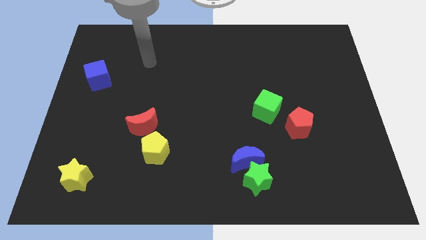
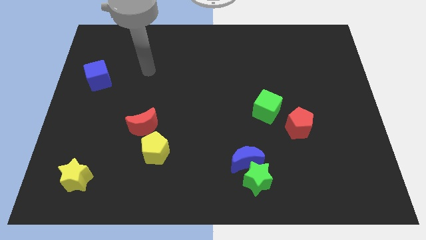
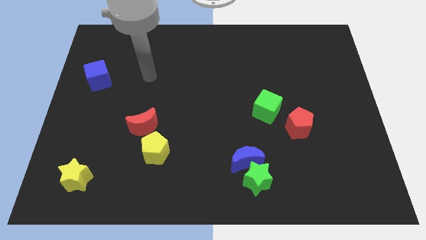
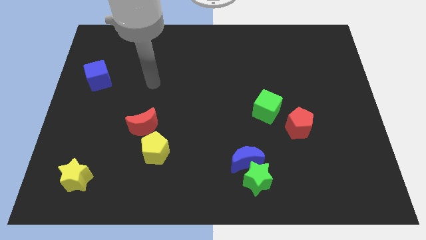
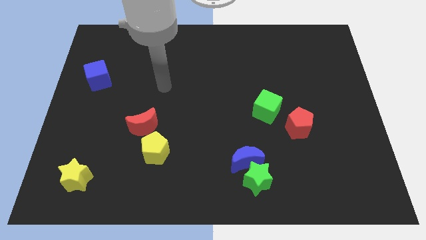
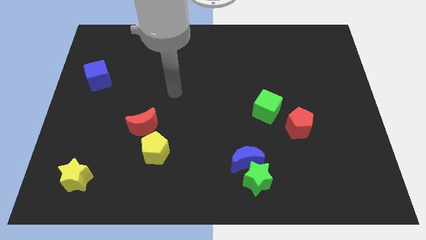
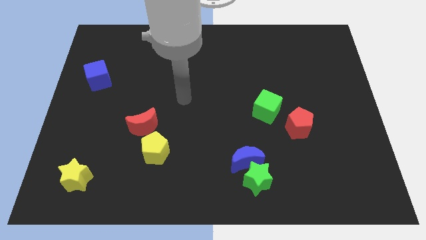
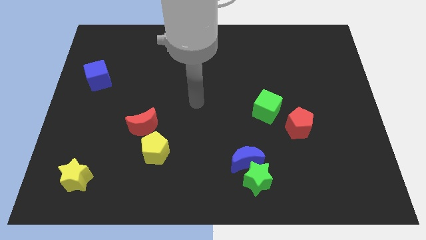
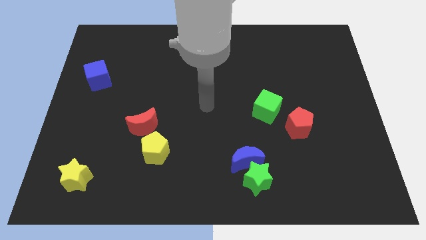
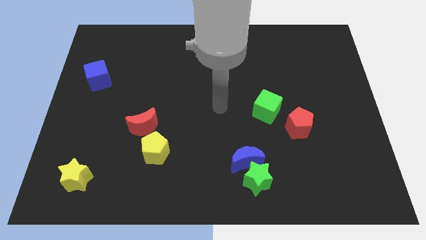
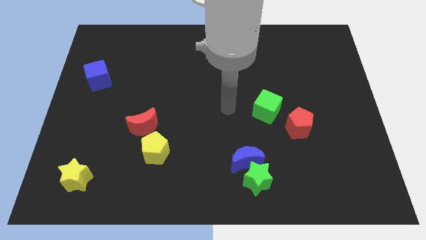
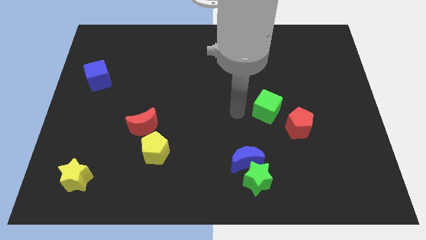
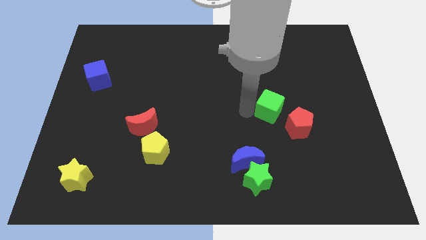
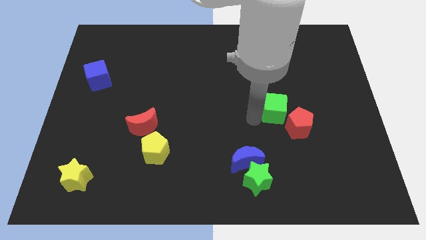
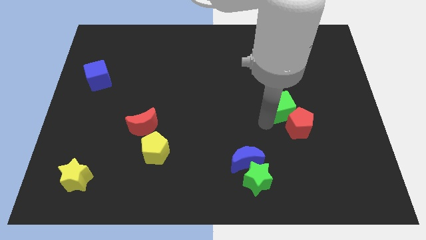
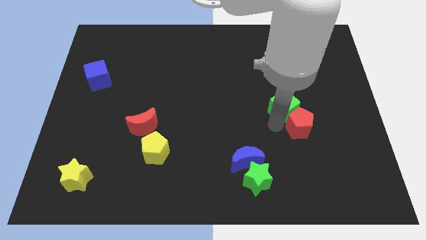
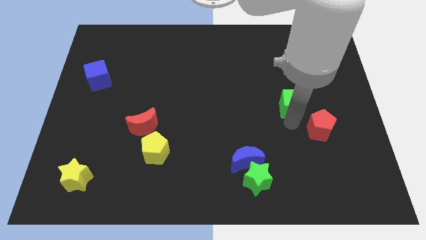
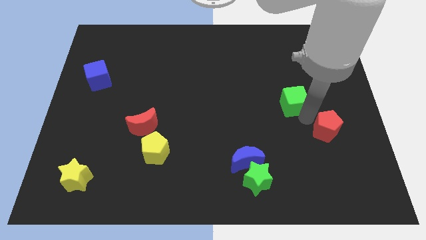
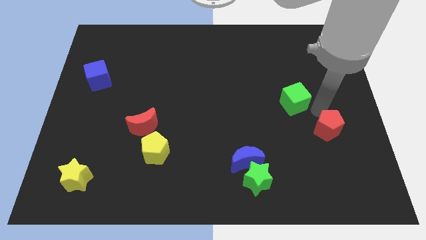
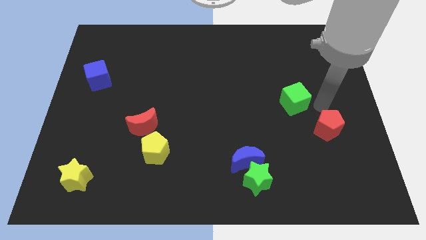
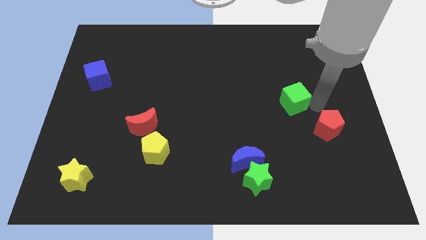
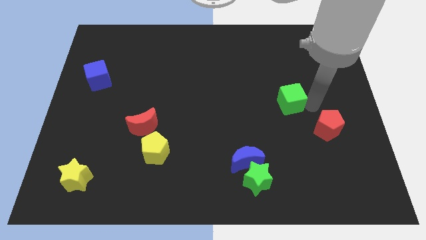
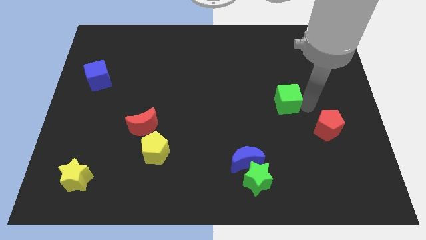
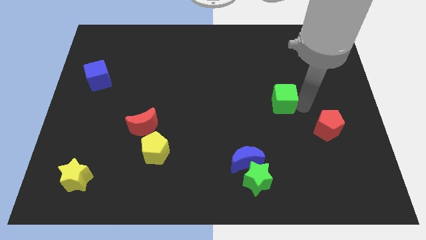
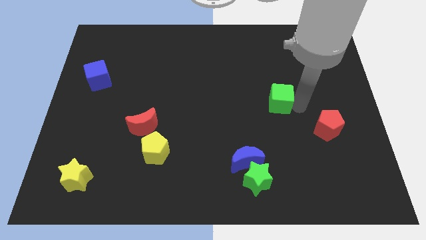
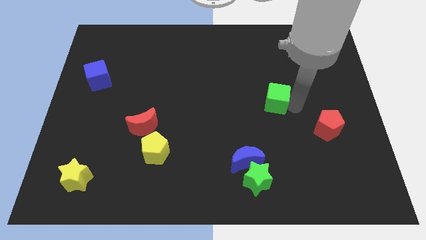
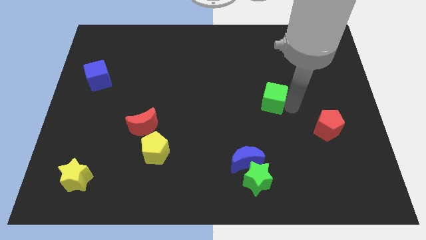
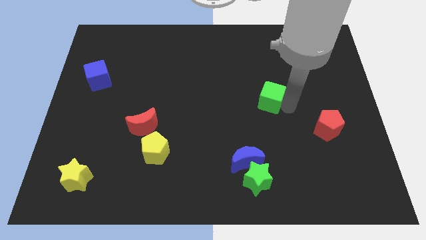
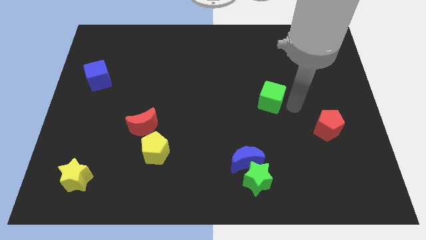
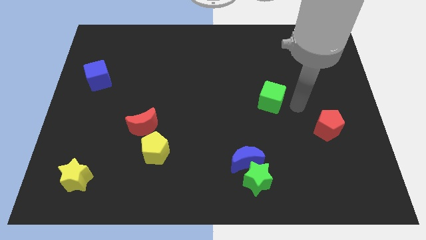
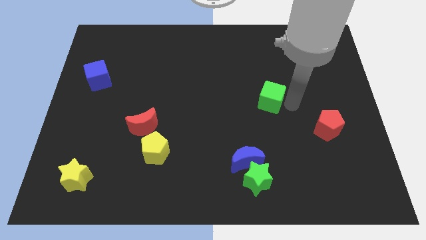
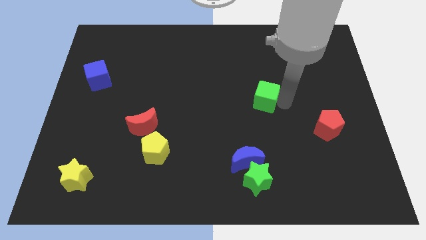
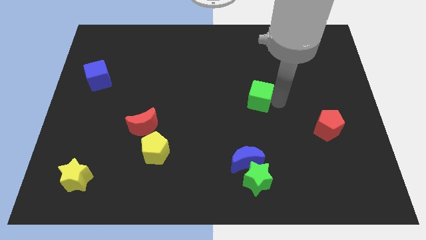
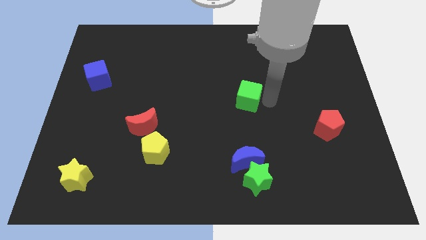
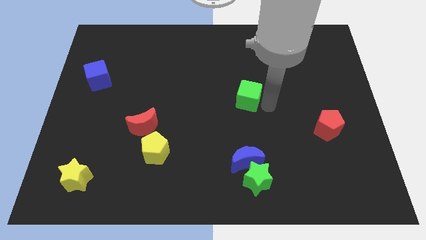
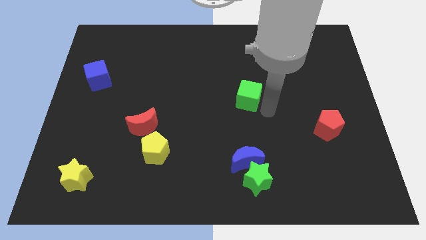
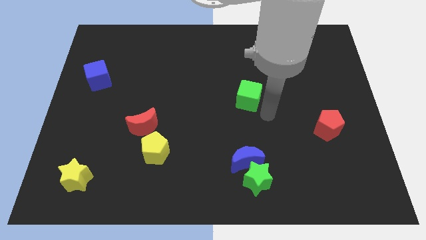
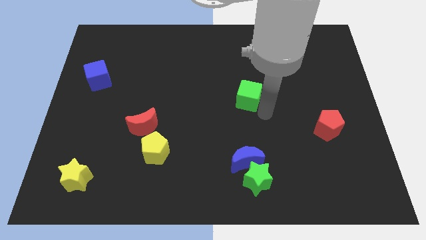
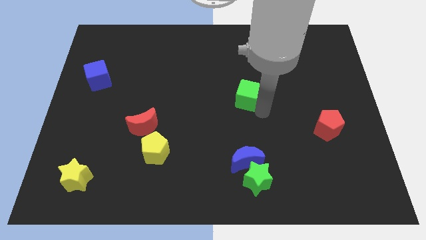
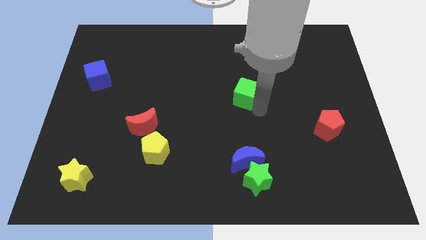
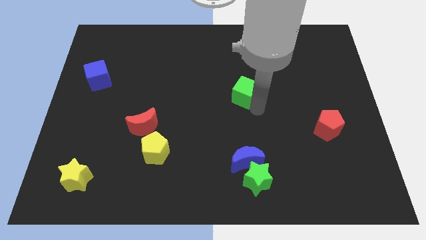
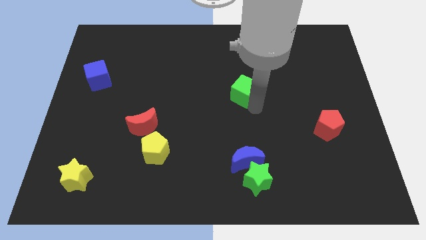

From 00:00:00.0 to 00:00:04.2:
slightly move the green cube upwards and to the left diagonally

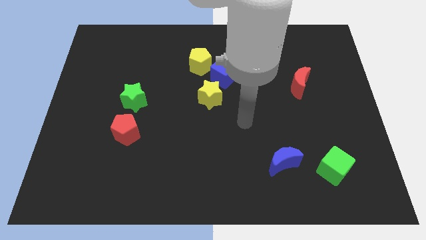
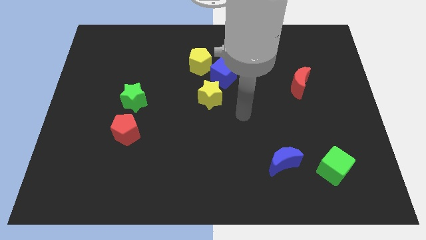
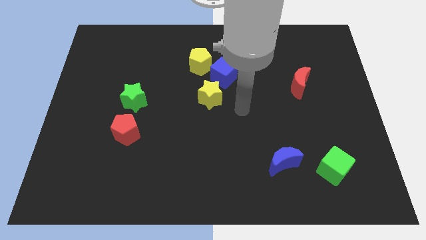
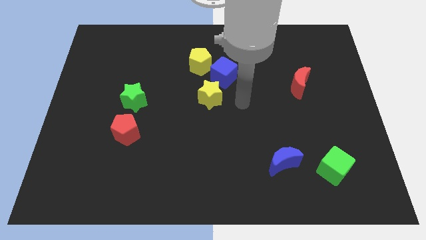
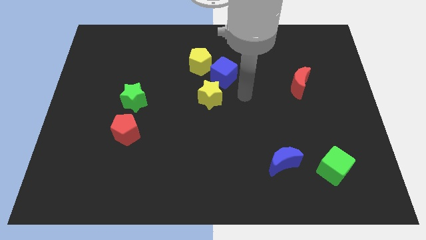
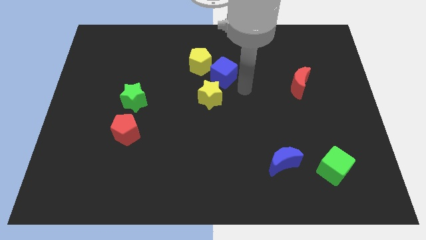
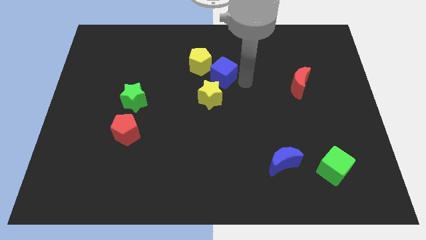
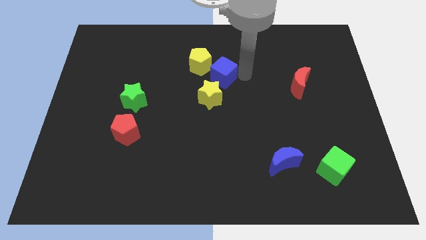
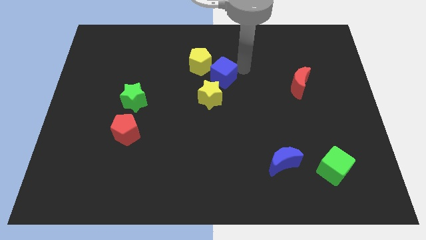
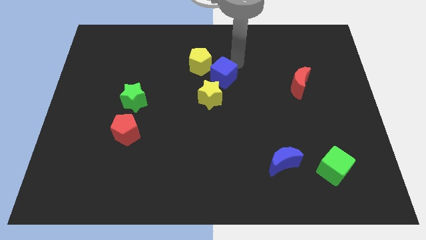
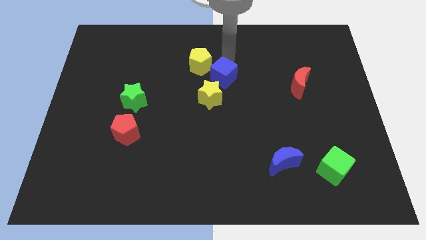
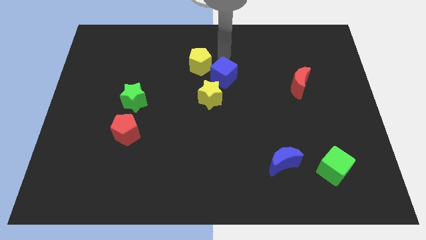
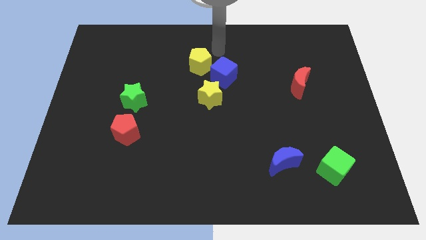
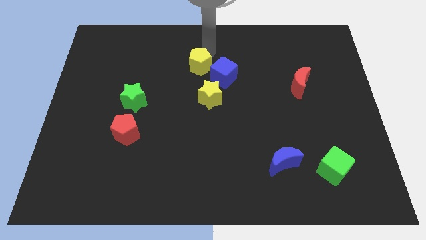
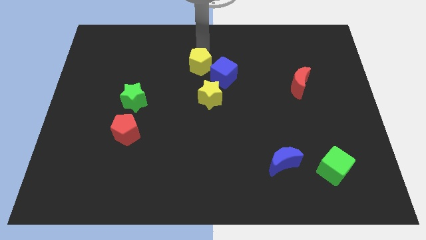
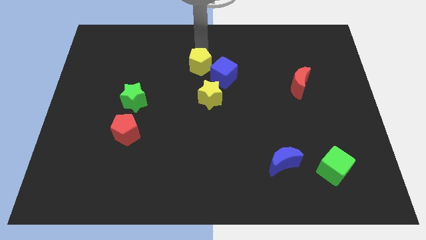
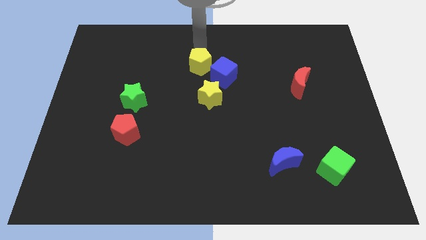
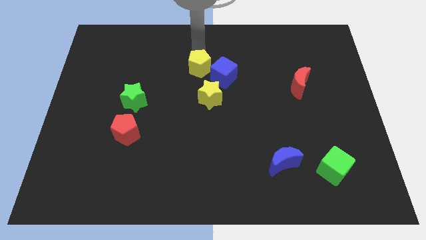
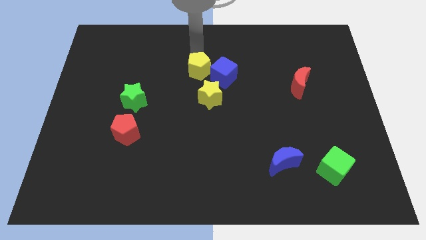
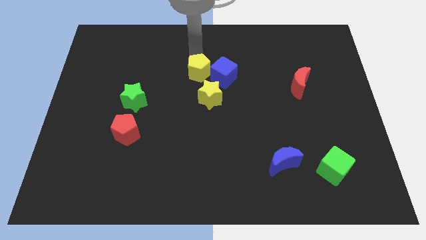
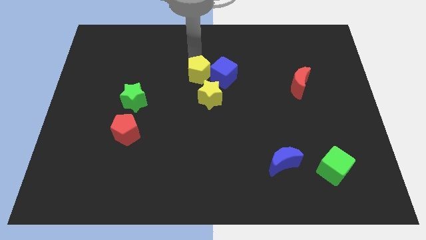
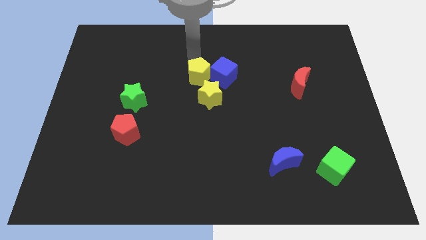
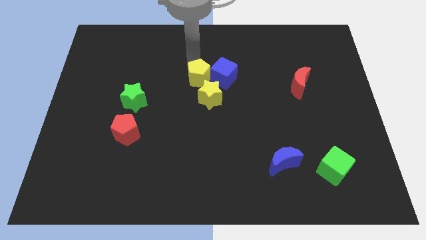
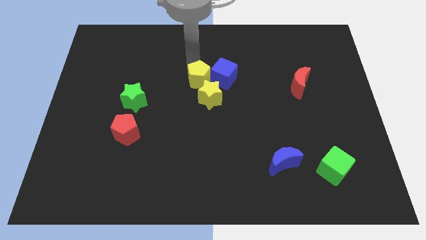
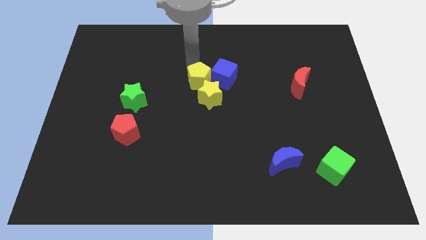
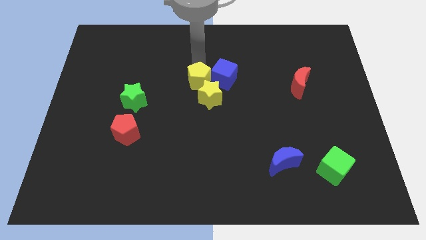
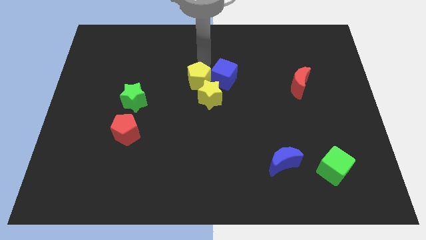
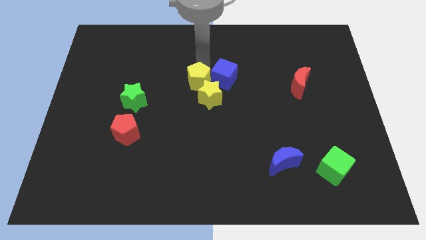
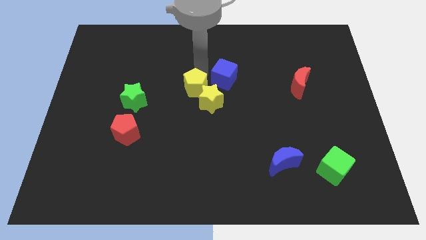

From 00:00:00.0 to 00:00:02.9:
slide the yellow pentagon downwards a bit

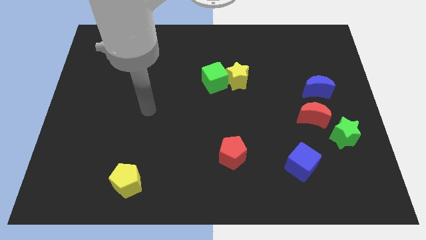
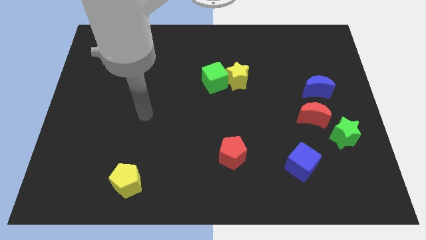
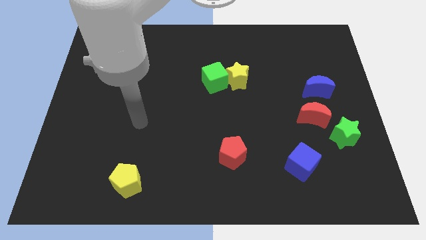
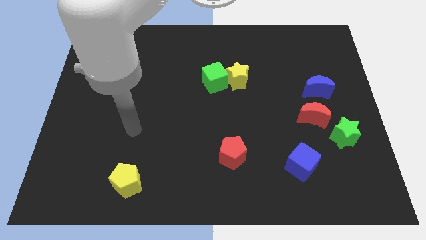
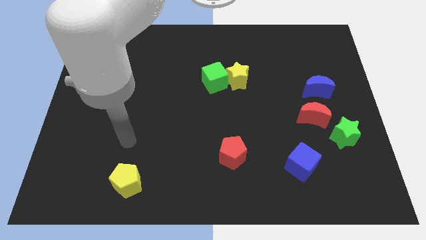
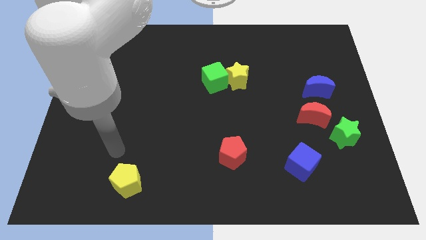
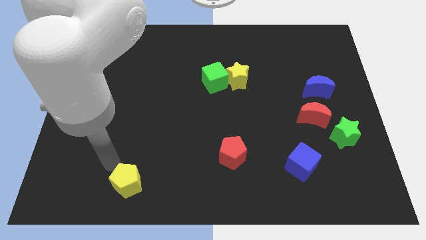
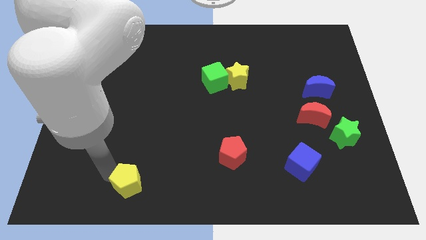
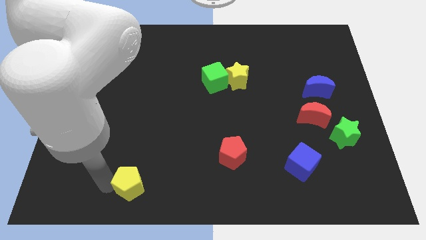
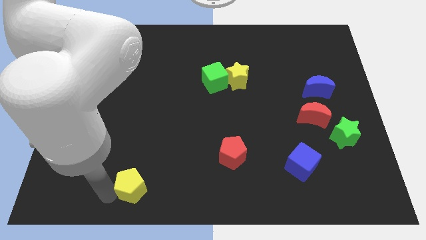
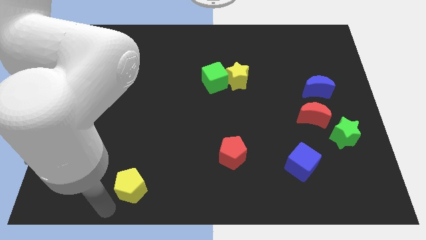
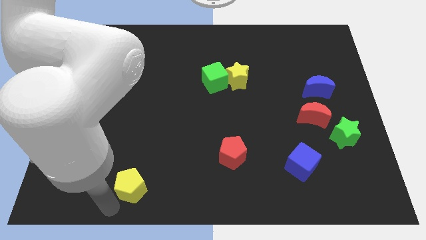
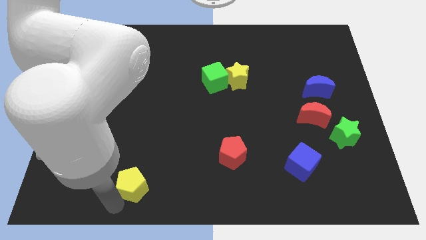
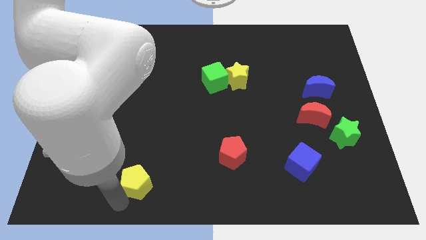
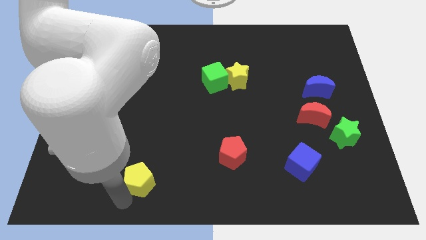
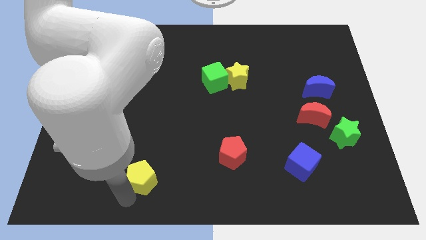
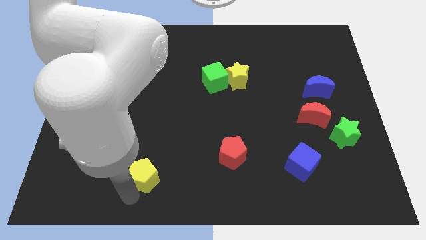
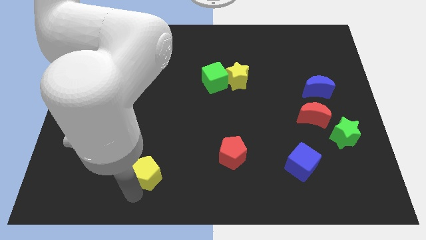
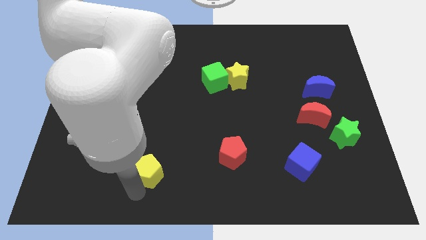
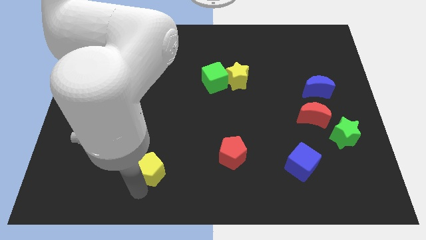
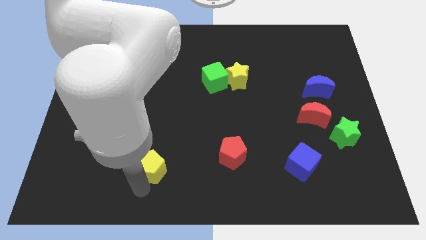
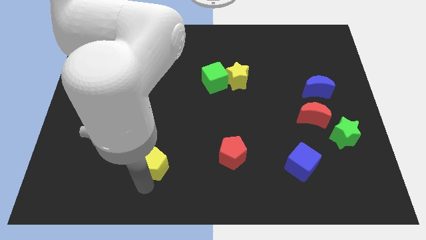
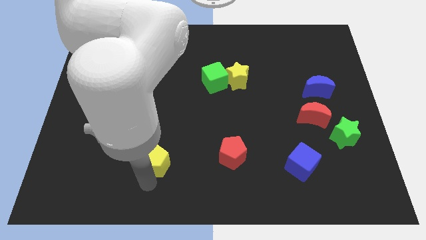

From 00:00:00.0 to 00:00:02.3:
slightly slide the yellow pentagon diagonally upwards and to the right
